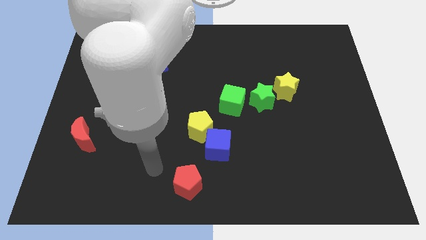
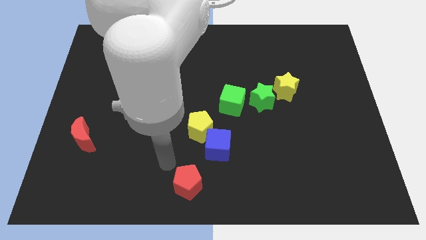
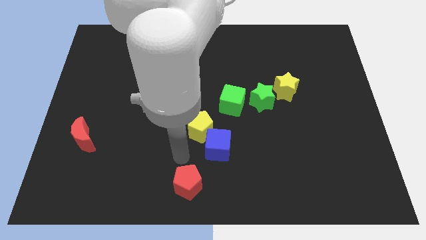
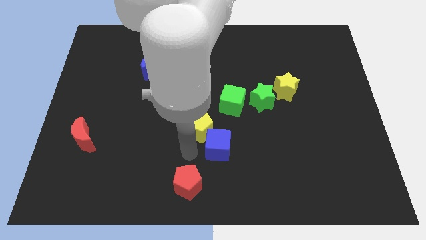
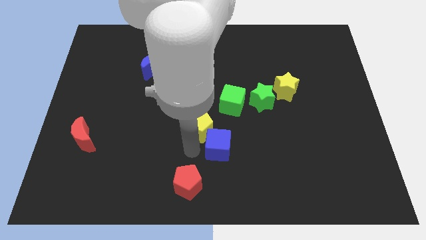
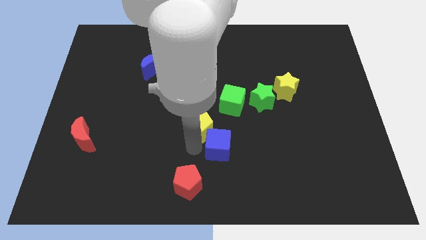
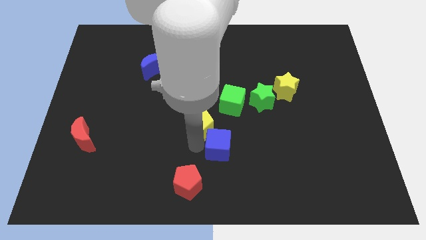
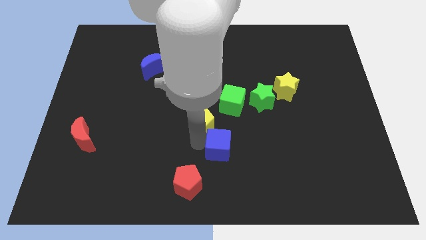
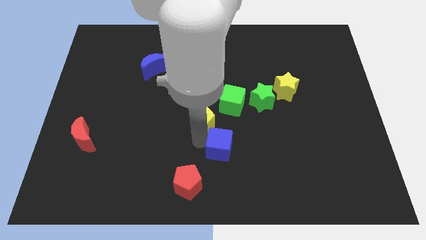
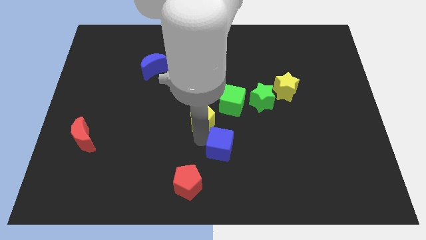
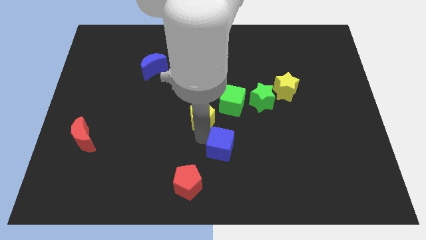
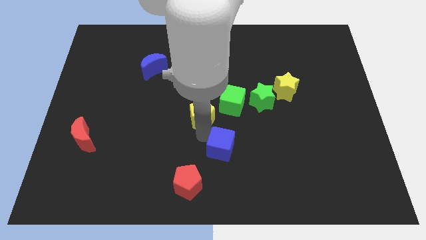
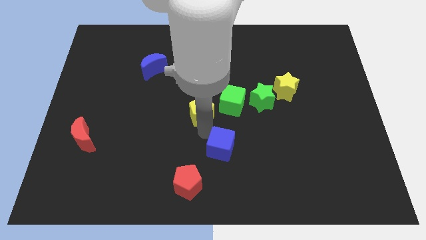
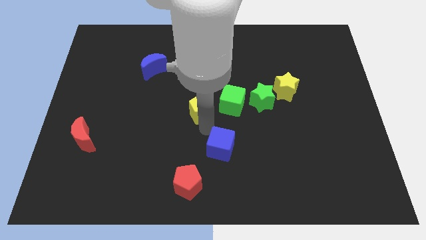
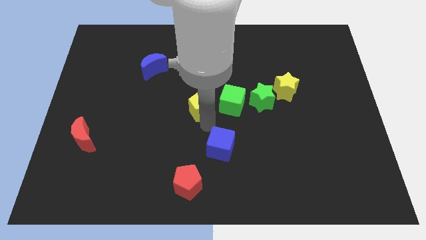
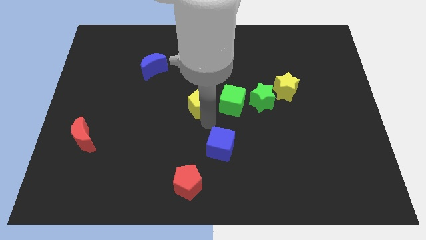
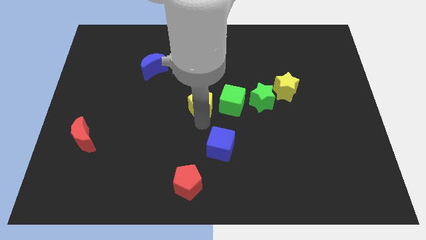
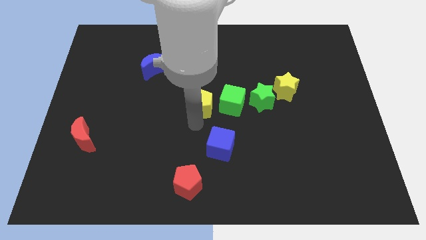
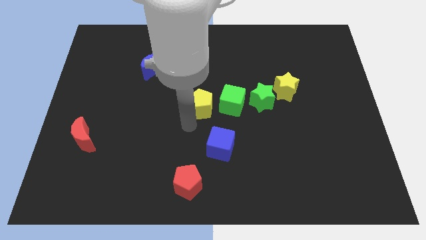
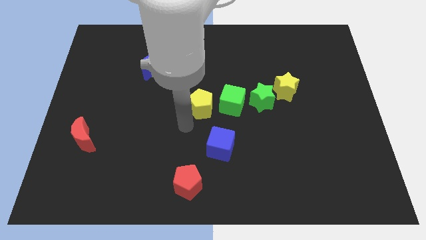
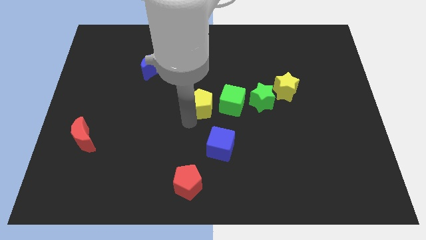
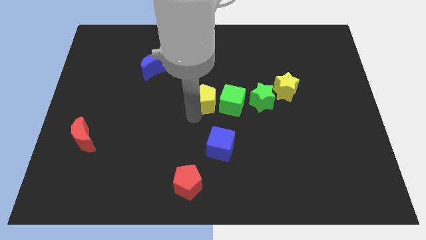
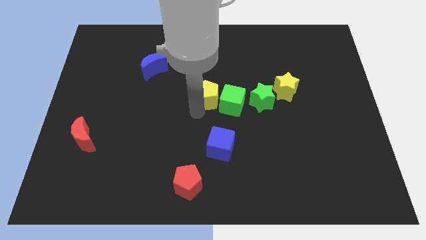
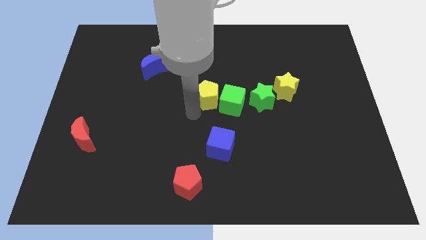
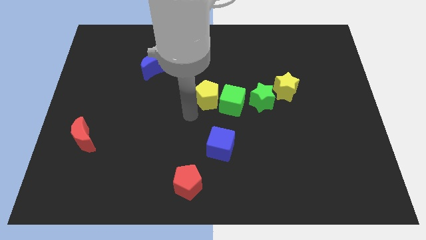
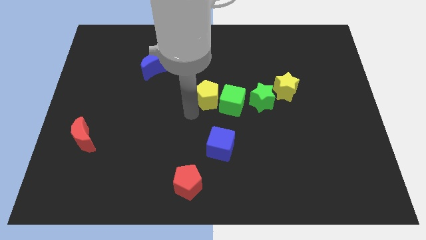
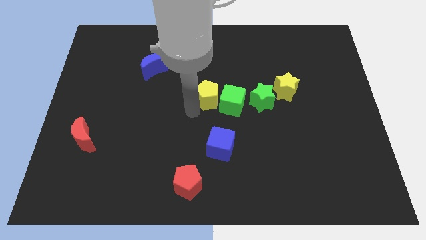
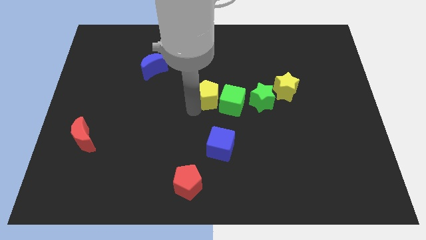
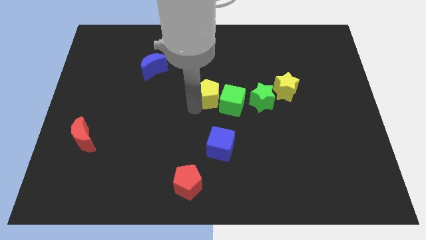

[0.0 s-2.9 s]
slide the yellow pentagon diagonally up and right a little

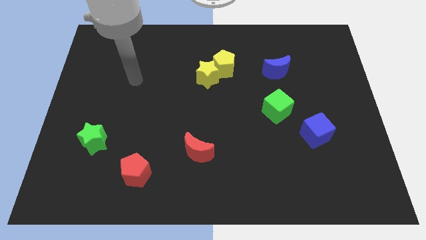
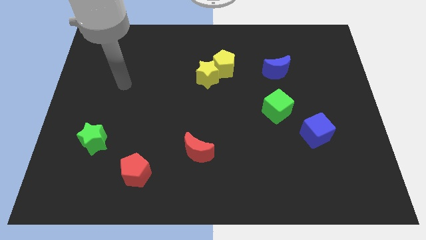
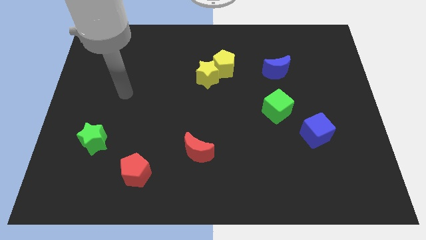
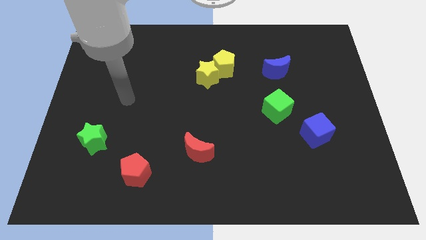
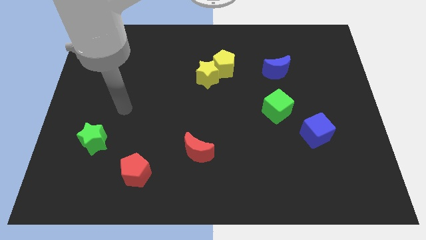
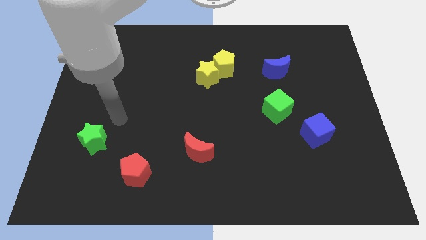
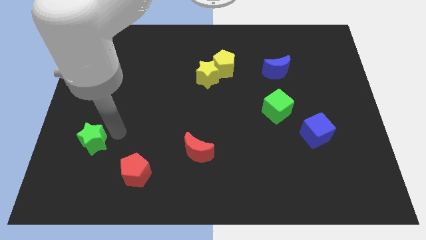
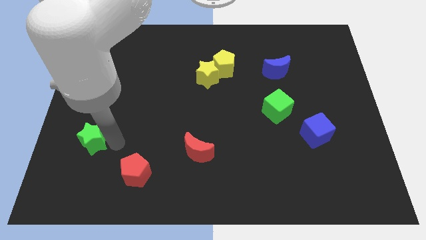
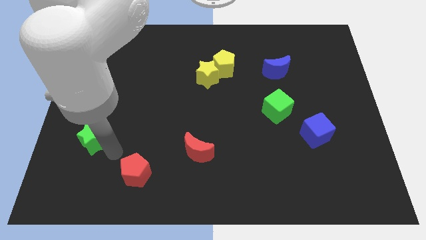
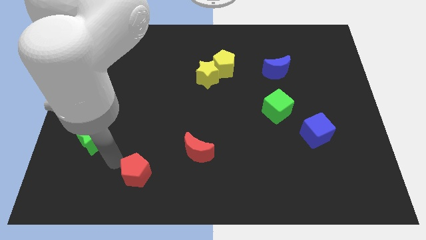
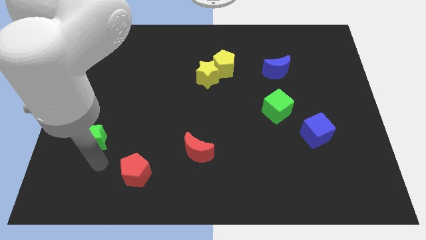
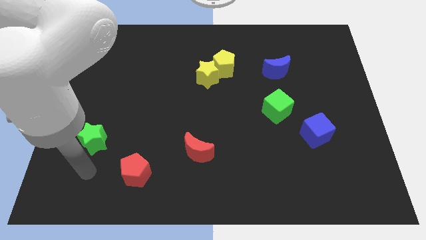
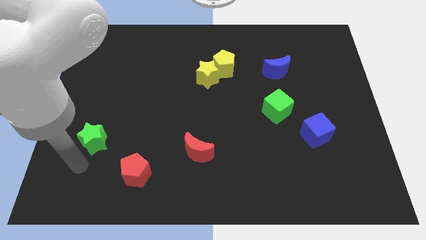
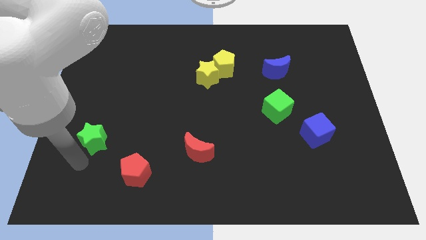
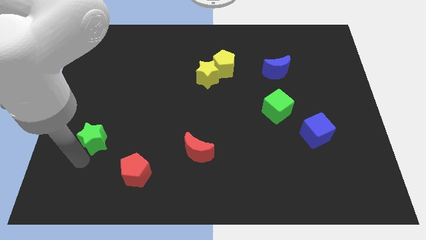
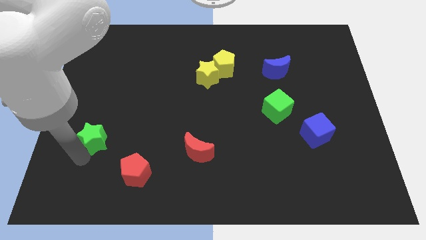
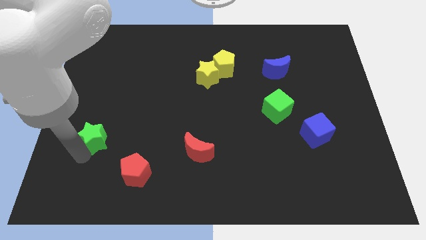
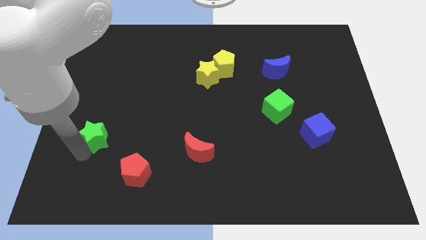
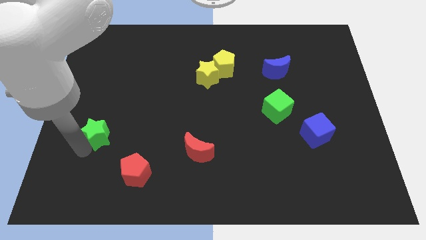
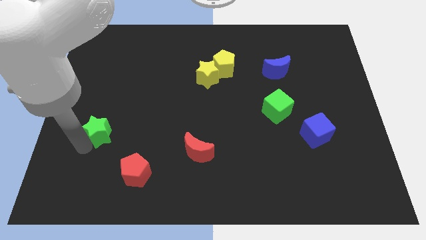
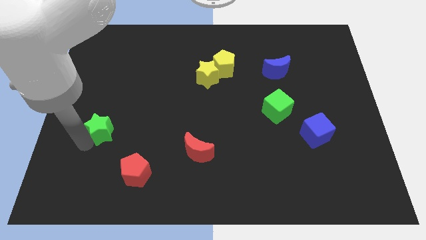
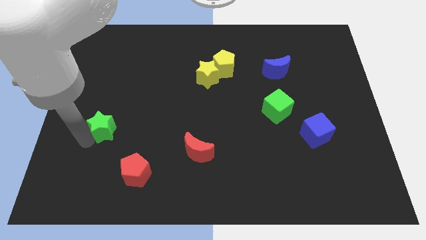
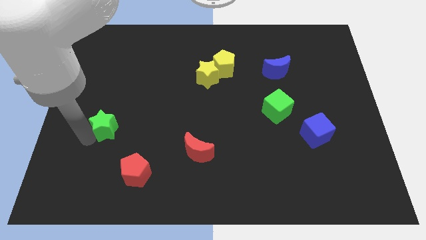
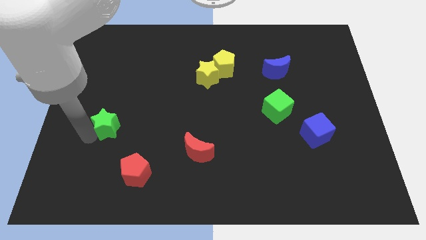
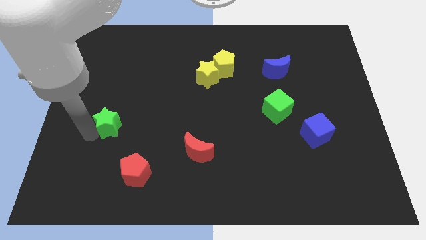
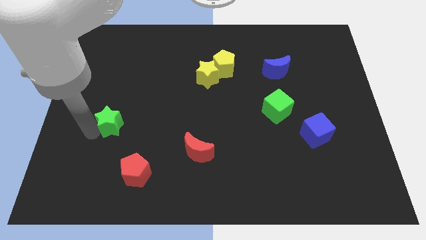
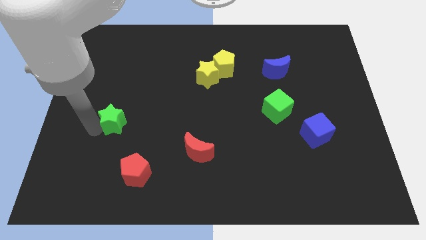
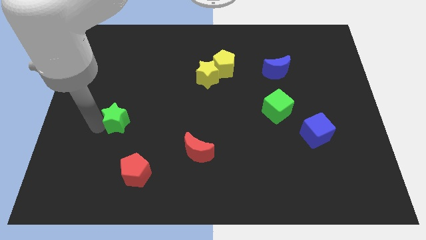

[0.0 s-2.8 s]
move the green star somewhat upwards and right

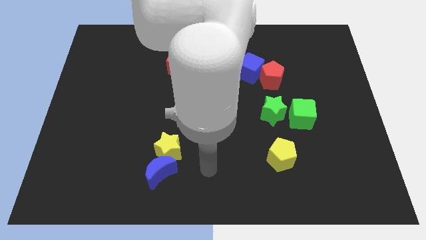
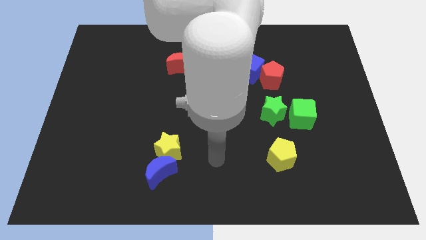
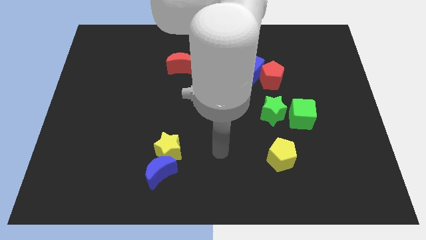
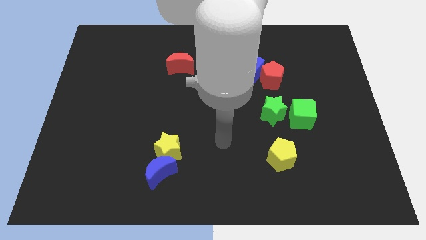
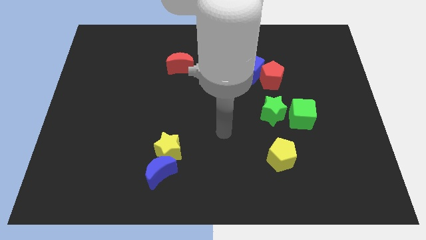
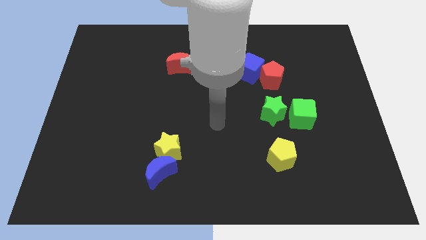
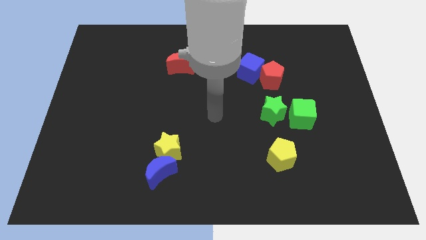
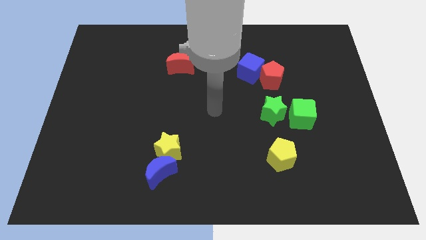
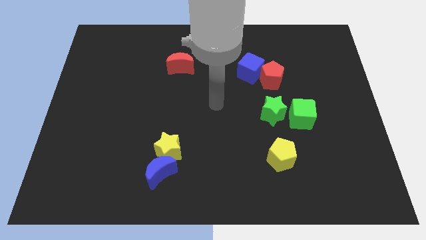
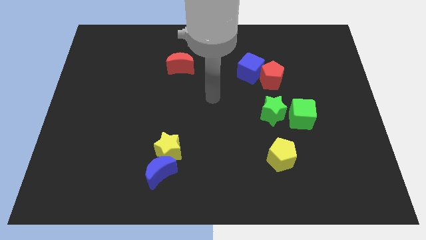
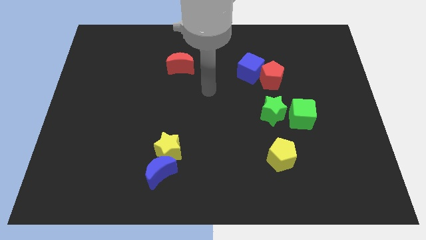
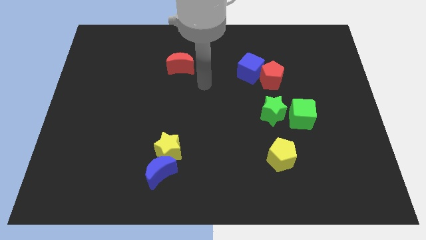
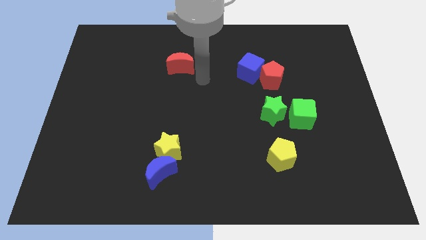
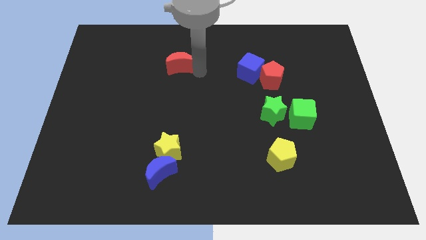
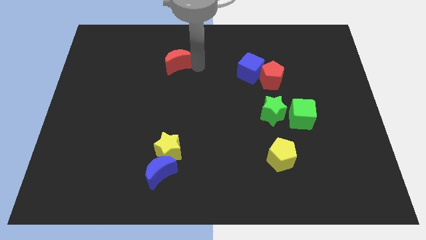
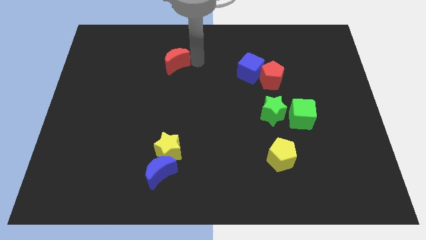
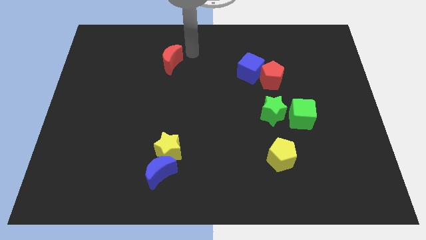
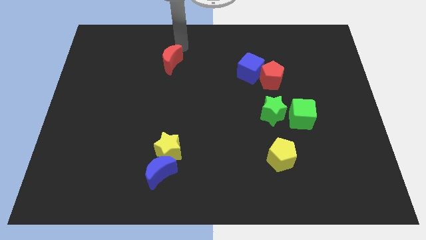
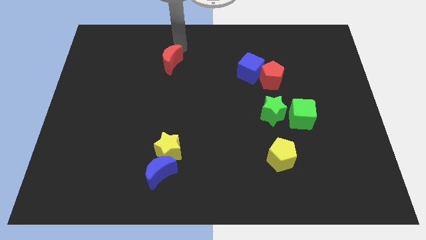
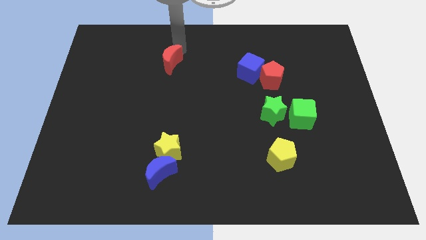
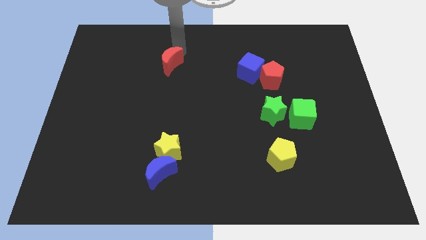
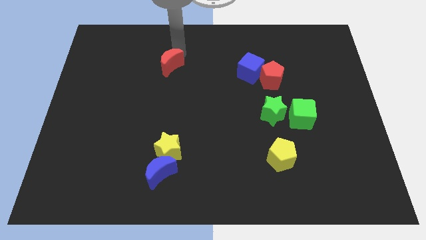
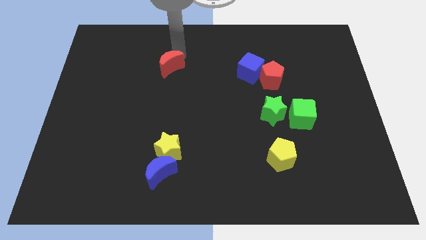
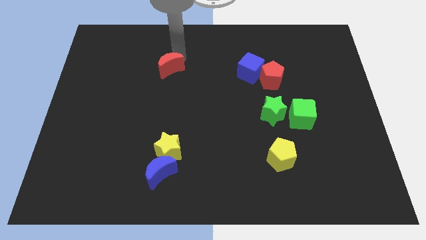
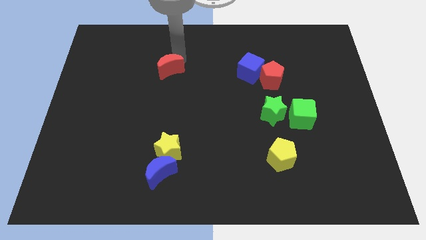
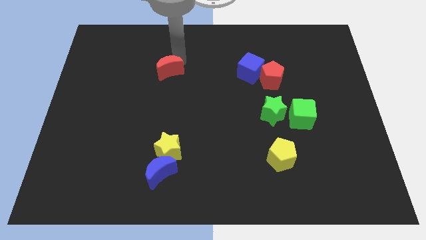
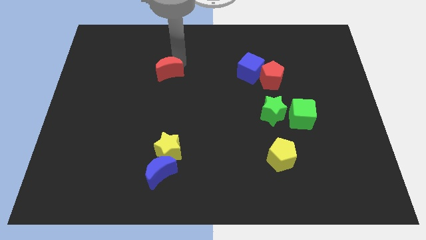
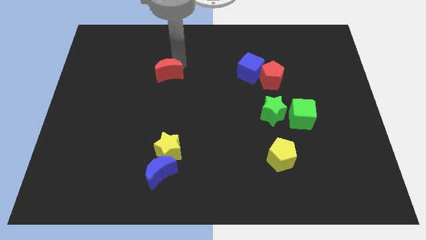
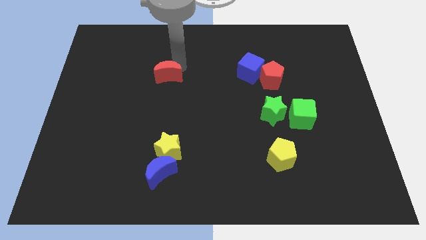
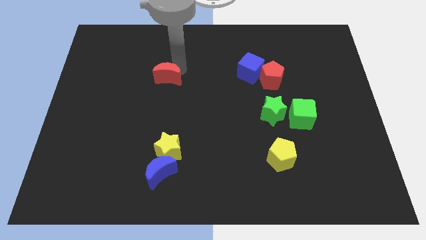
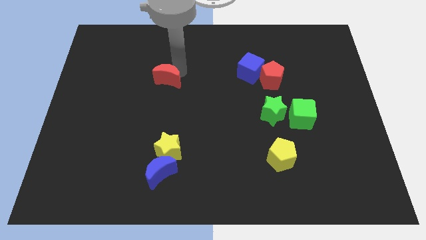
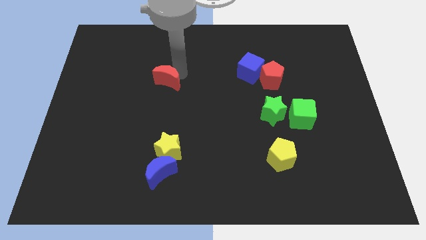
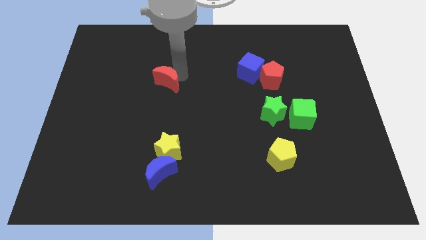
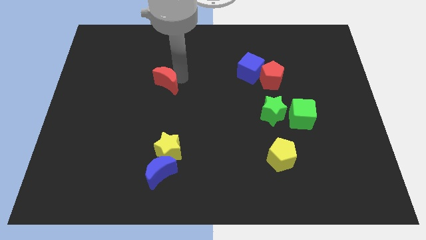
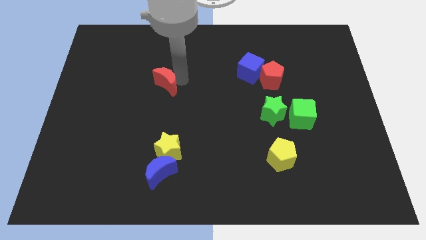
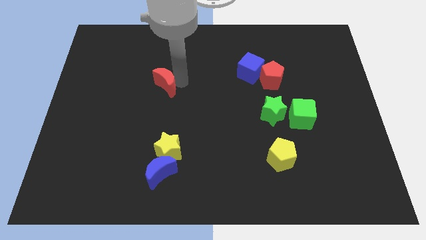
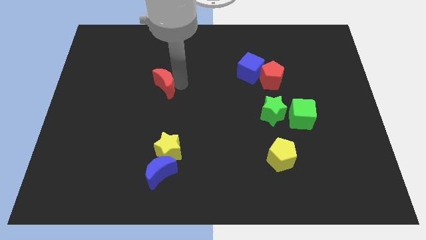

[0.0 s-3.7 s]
slide the red moon diagonally down and to the left slightly
